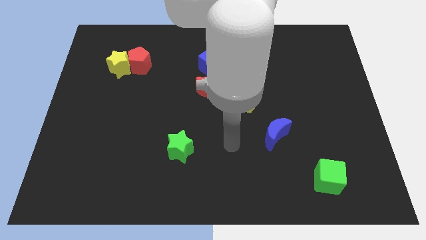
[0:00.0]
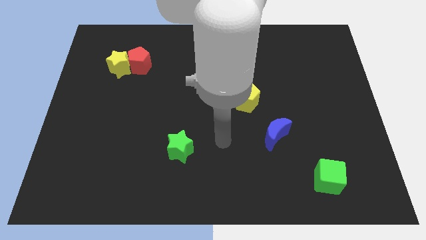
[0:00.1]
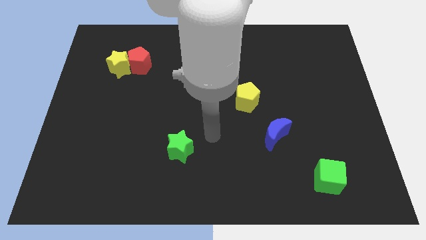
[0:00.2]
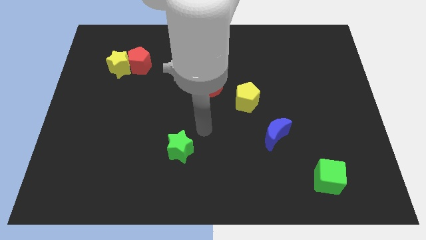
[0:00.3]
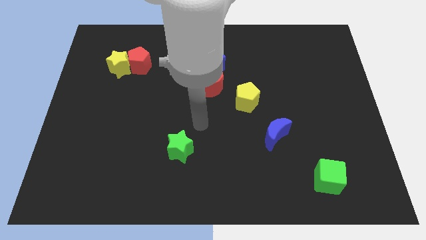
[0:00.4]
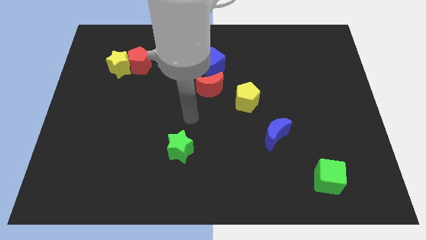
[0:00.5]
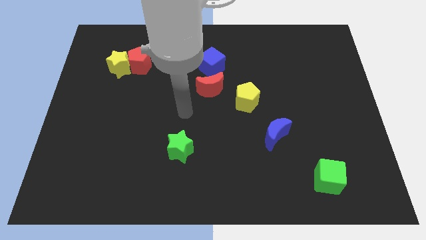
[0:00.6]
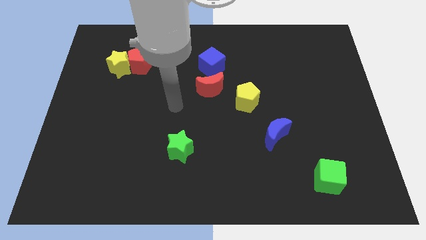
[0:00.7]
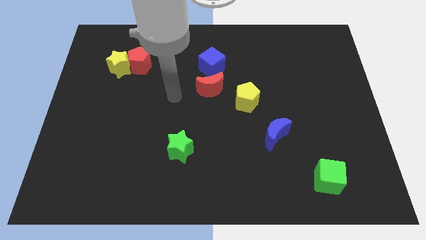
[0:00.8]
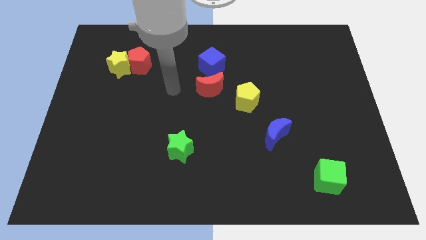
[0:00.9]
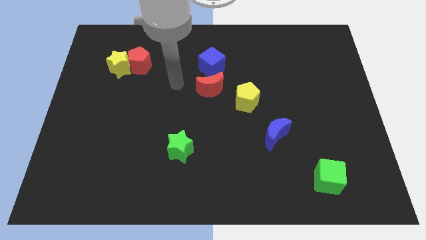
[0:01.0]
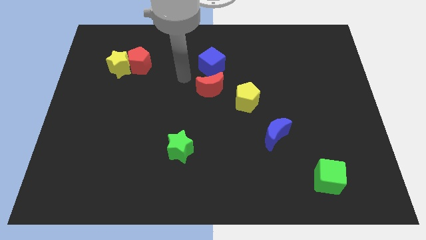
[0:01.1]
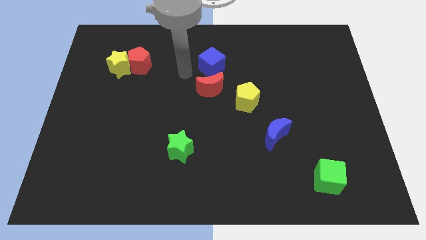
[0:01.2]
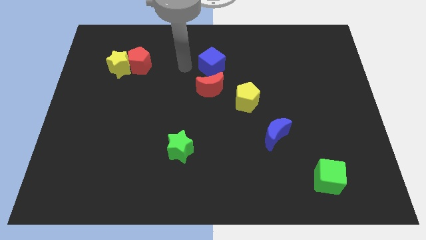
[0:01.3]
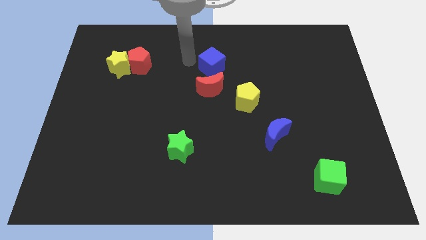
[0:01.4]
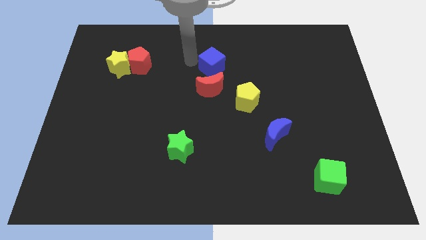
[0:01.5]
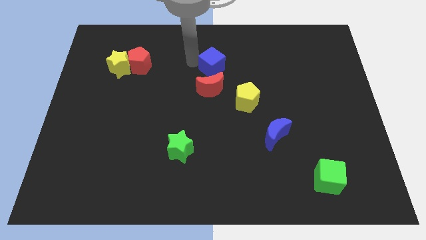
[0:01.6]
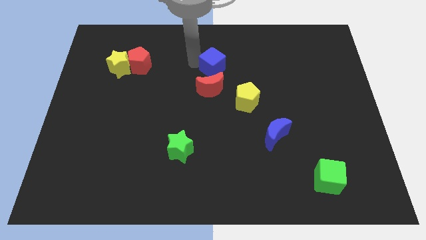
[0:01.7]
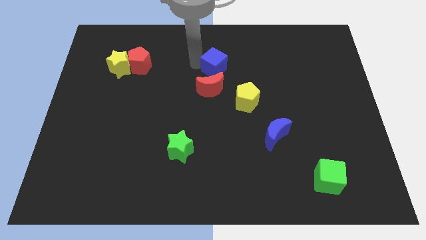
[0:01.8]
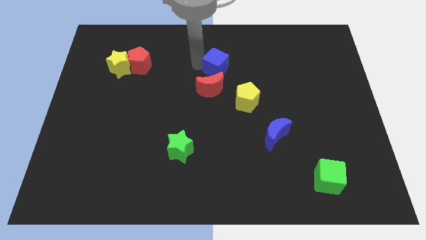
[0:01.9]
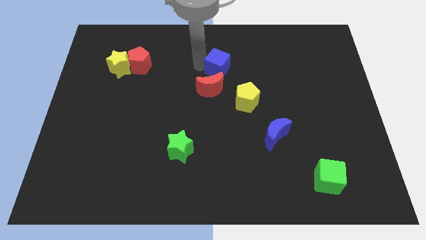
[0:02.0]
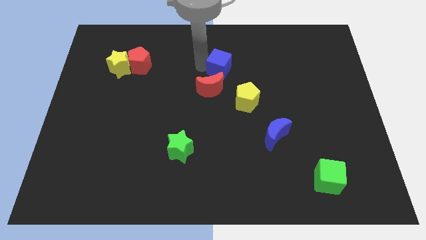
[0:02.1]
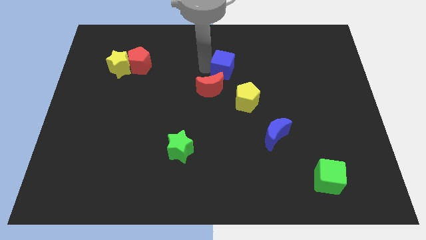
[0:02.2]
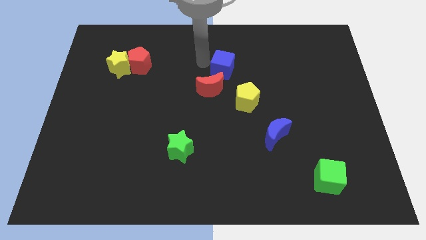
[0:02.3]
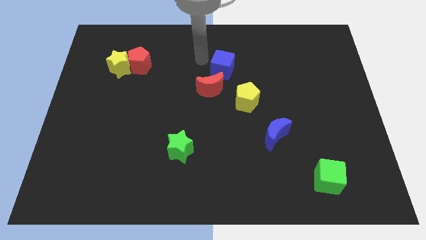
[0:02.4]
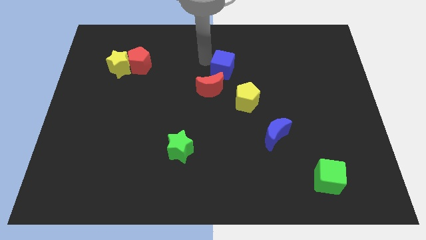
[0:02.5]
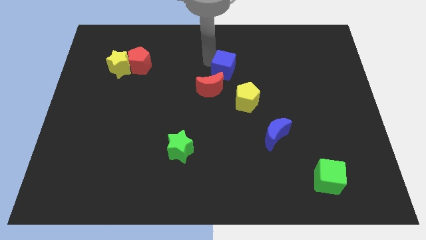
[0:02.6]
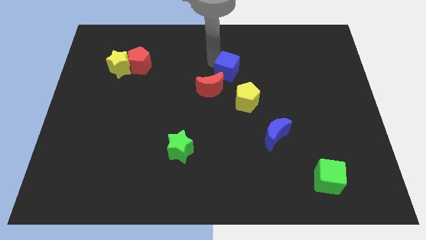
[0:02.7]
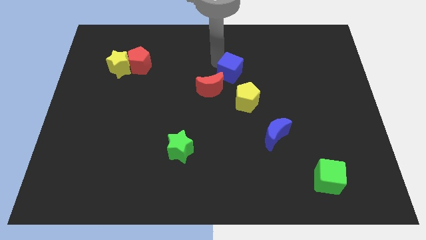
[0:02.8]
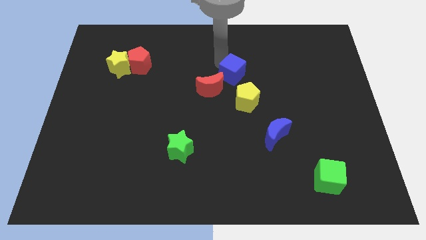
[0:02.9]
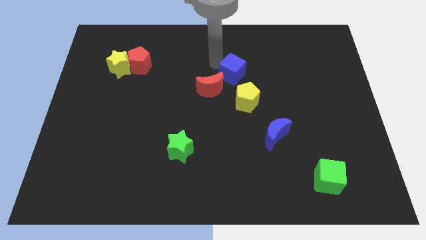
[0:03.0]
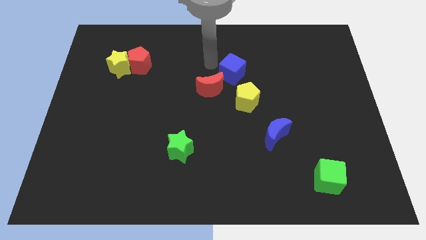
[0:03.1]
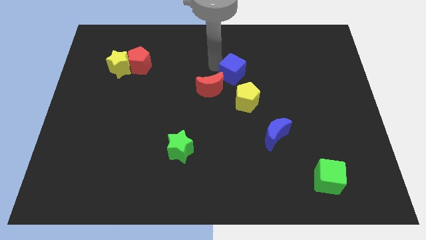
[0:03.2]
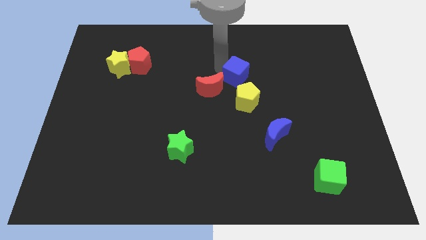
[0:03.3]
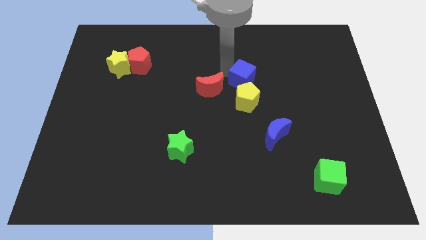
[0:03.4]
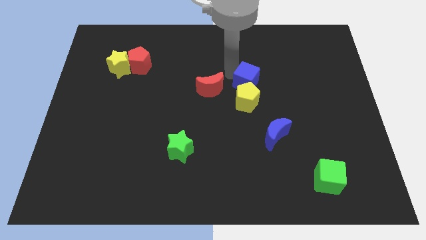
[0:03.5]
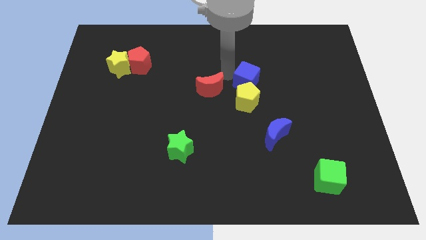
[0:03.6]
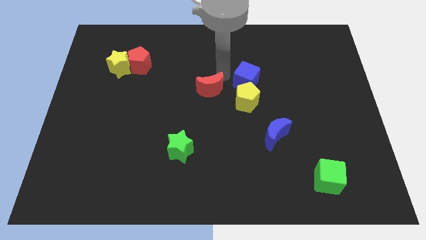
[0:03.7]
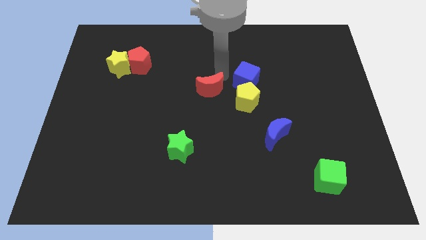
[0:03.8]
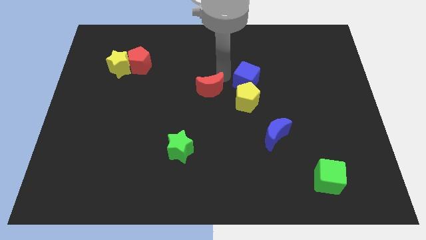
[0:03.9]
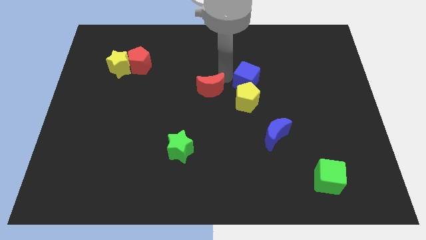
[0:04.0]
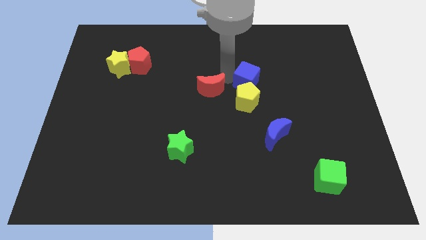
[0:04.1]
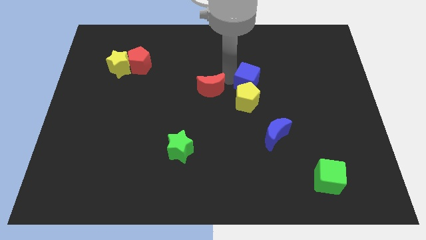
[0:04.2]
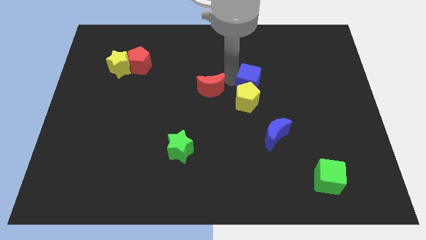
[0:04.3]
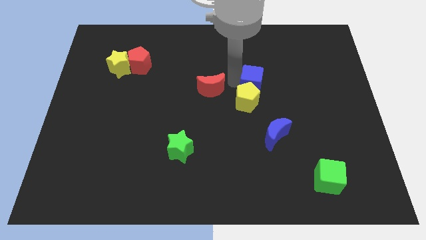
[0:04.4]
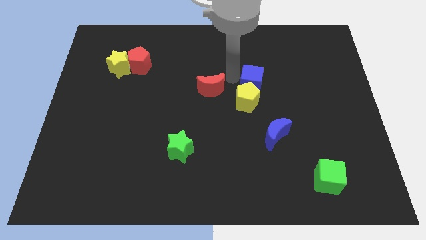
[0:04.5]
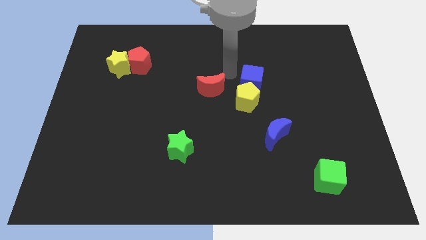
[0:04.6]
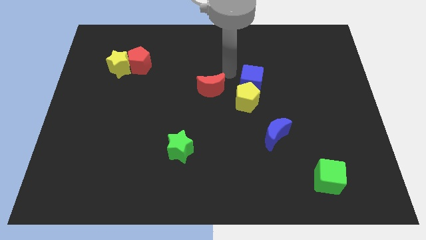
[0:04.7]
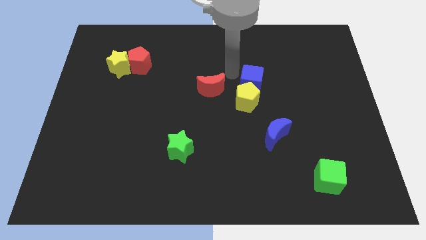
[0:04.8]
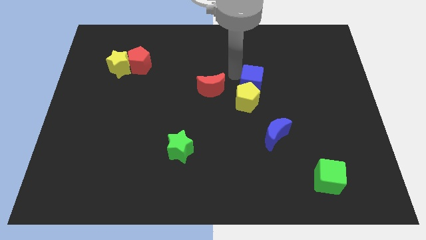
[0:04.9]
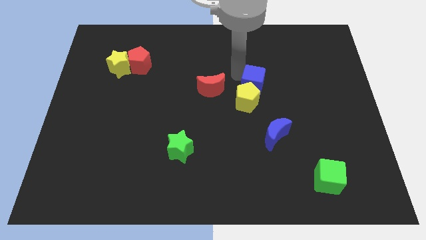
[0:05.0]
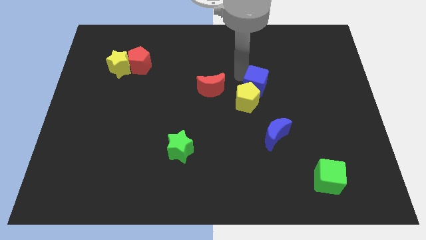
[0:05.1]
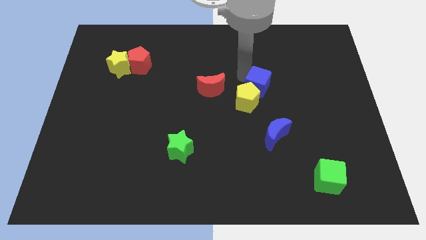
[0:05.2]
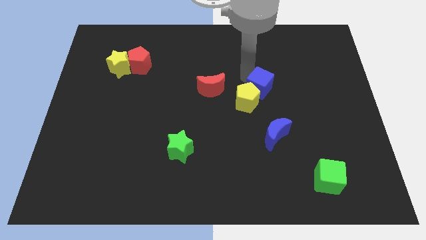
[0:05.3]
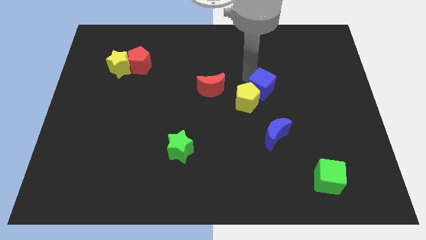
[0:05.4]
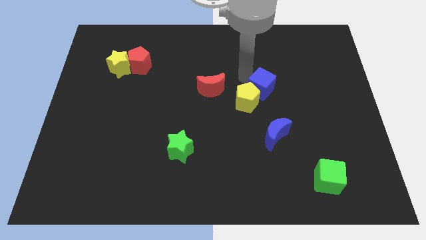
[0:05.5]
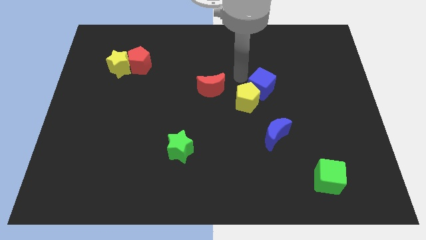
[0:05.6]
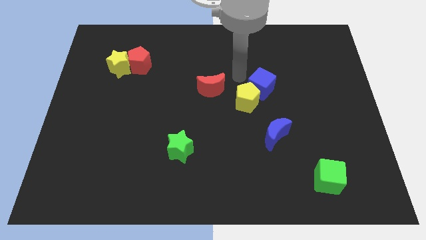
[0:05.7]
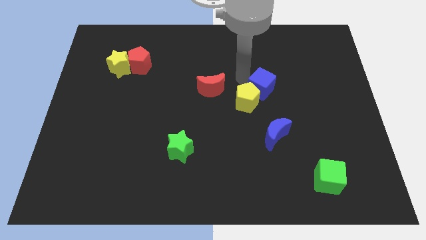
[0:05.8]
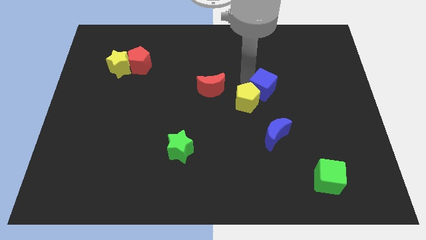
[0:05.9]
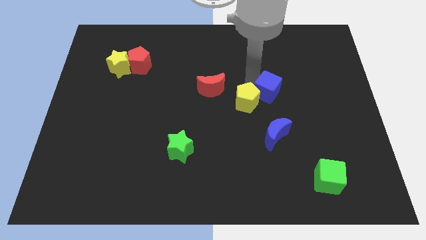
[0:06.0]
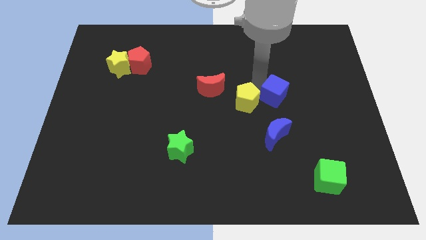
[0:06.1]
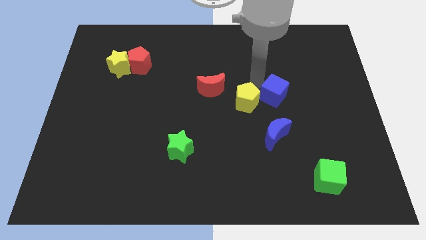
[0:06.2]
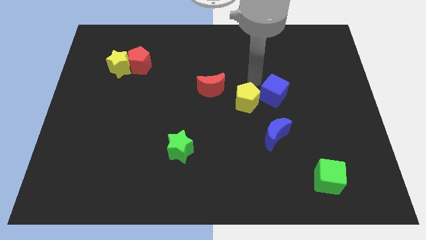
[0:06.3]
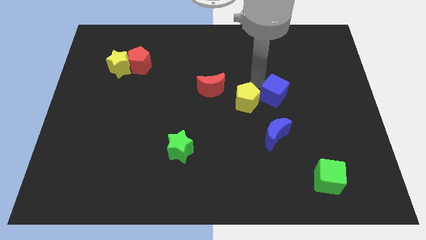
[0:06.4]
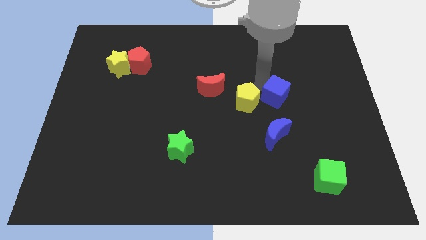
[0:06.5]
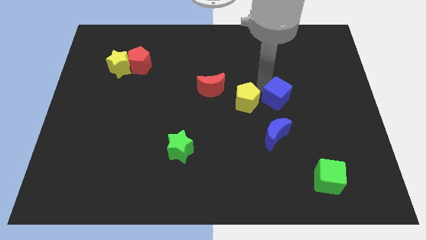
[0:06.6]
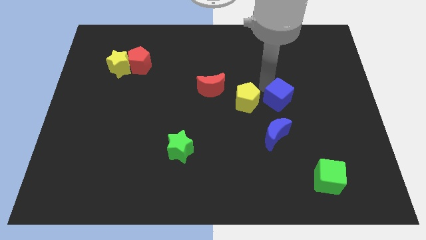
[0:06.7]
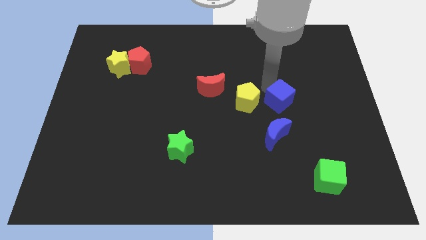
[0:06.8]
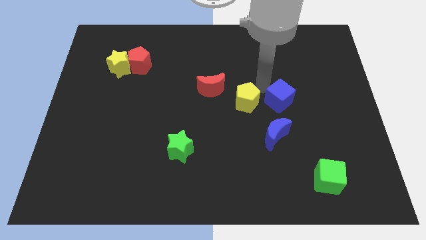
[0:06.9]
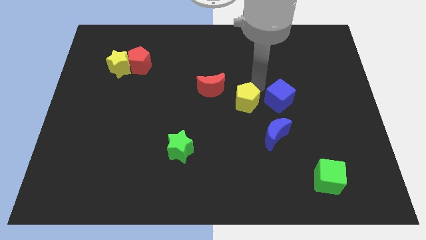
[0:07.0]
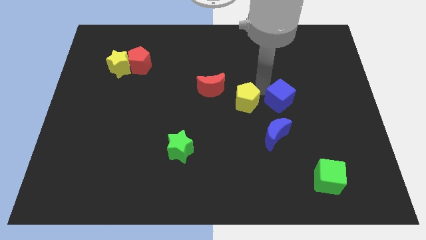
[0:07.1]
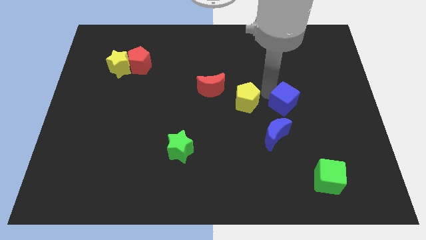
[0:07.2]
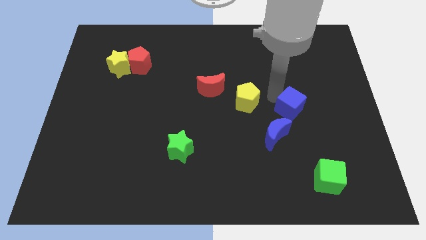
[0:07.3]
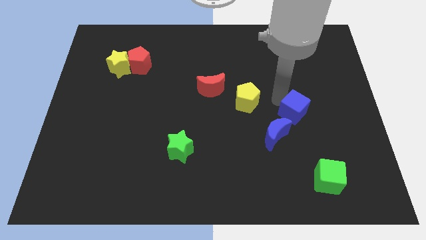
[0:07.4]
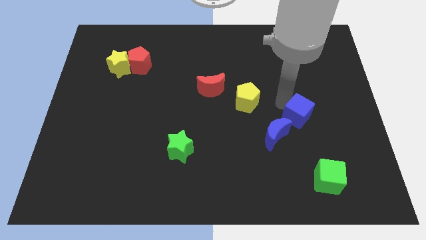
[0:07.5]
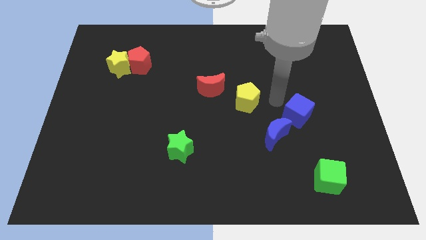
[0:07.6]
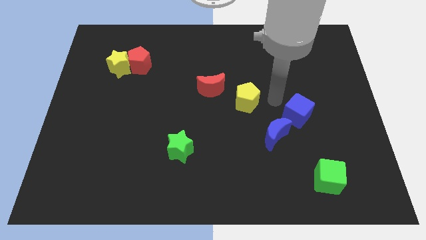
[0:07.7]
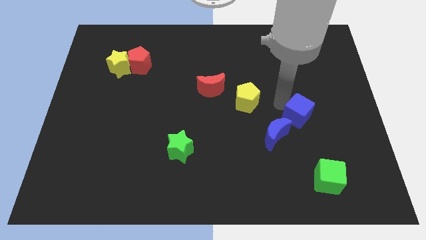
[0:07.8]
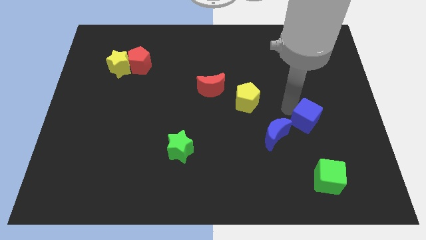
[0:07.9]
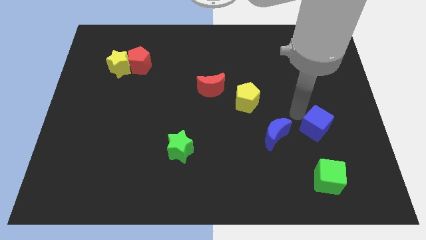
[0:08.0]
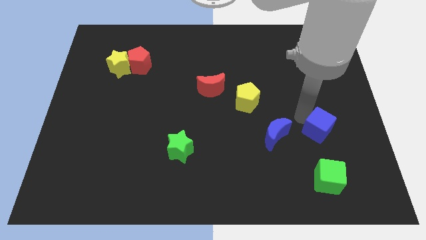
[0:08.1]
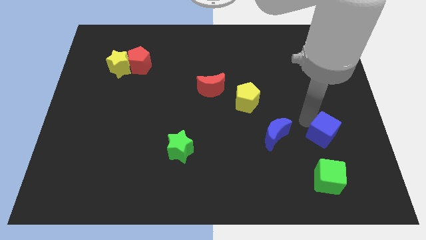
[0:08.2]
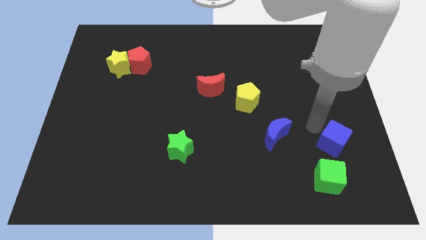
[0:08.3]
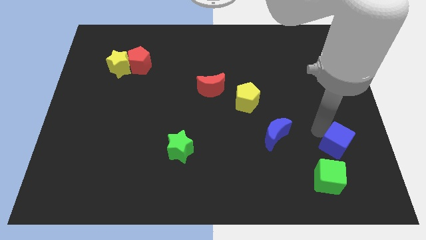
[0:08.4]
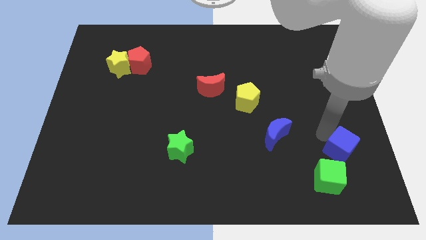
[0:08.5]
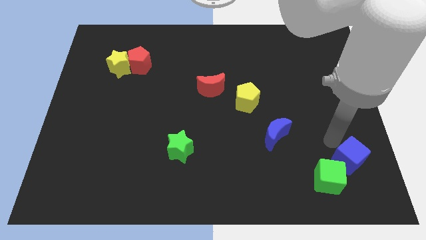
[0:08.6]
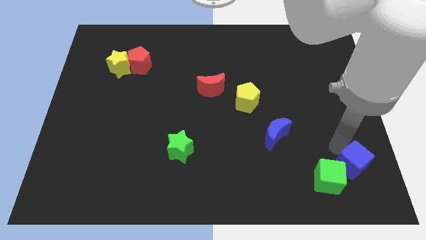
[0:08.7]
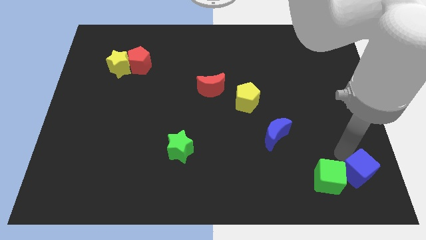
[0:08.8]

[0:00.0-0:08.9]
move the blue cube to the bottom right corner
